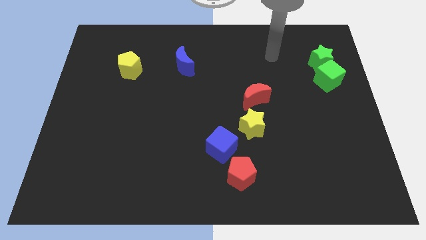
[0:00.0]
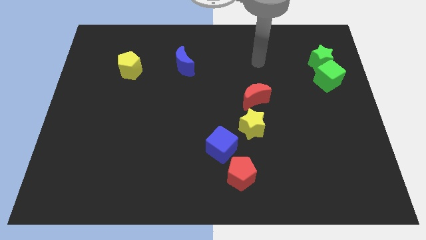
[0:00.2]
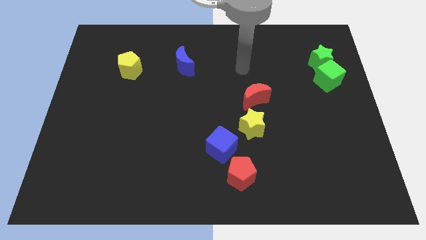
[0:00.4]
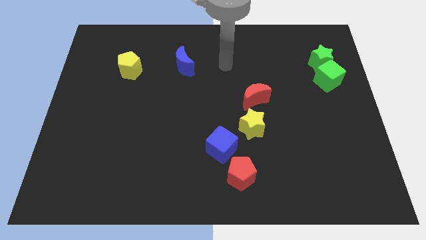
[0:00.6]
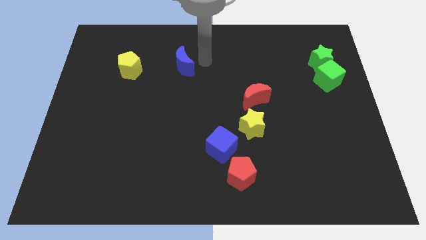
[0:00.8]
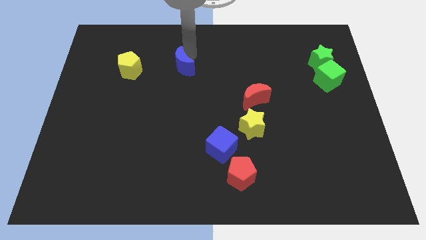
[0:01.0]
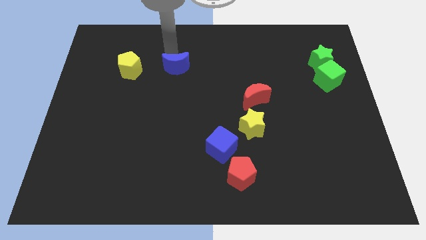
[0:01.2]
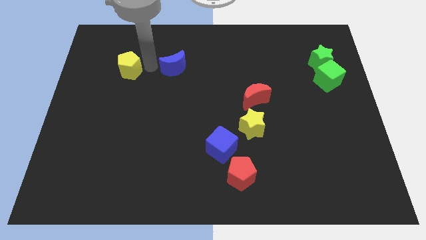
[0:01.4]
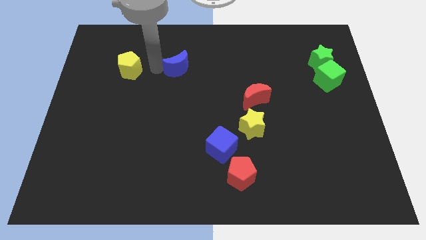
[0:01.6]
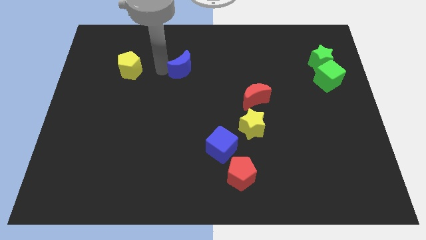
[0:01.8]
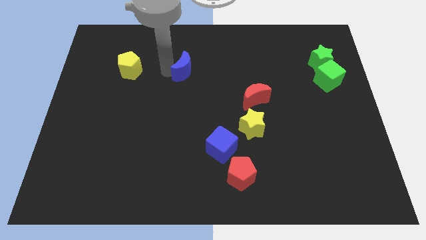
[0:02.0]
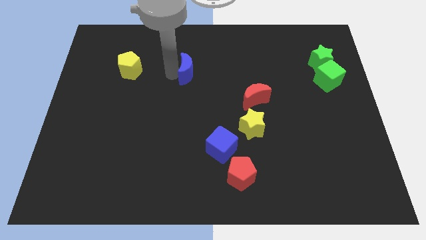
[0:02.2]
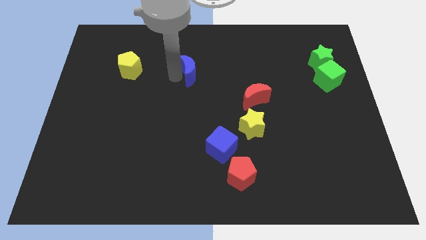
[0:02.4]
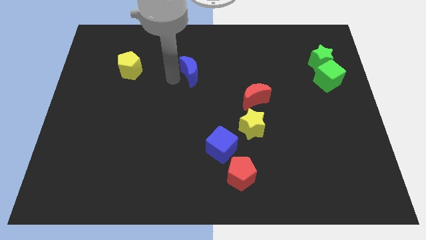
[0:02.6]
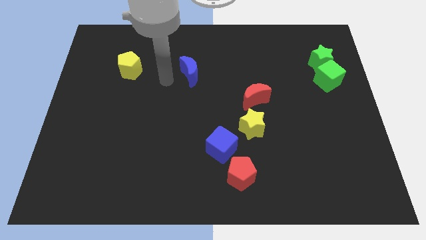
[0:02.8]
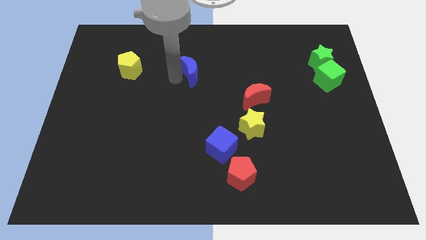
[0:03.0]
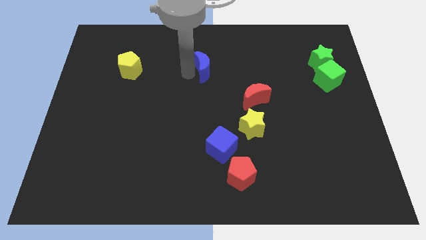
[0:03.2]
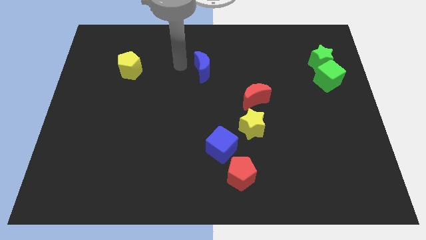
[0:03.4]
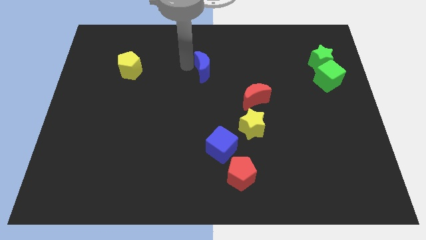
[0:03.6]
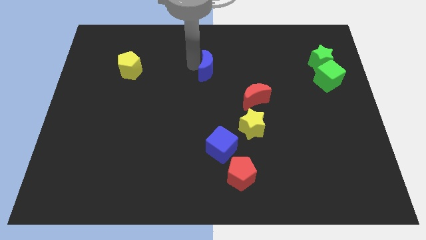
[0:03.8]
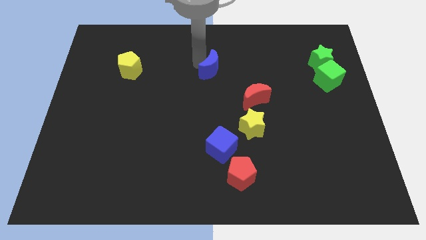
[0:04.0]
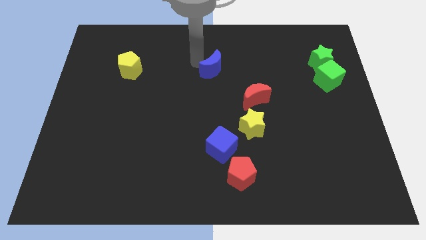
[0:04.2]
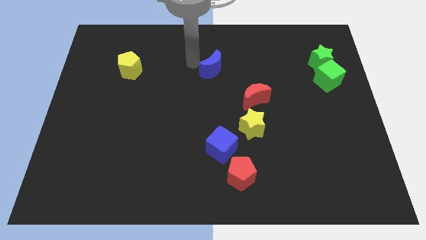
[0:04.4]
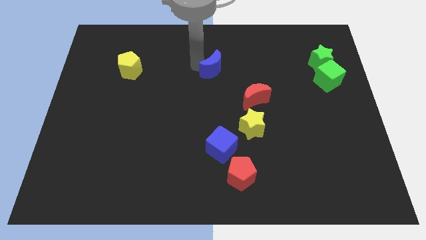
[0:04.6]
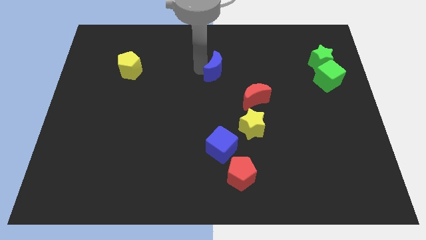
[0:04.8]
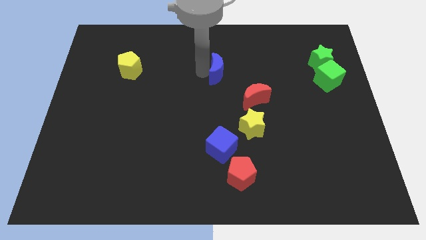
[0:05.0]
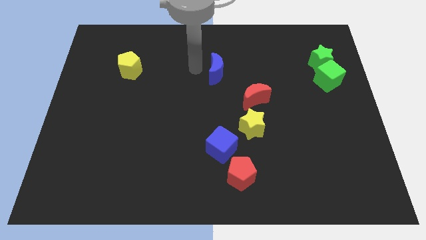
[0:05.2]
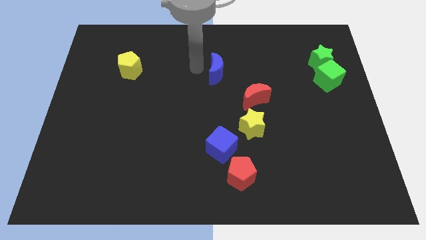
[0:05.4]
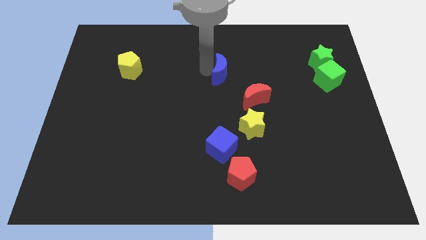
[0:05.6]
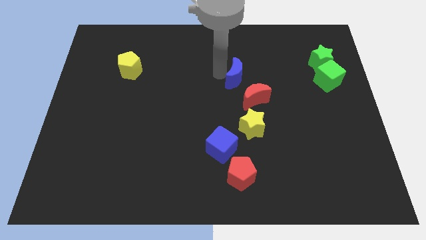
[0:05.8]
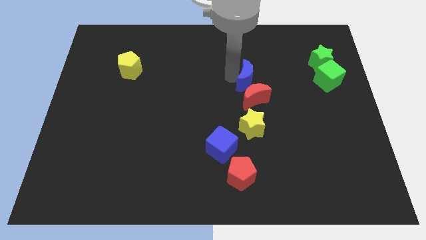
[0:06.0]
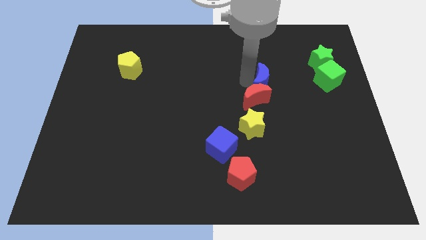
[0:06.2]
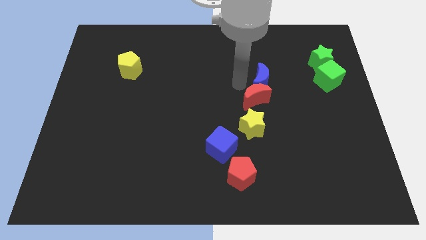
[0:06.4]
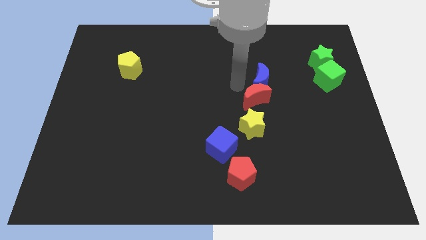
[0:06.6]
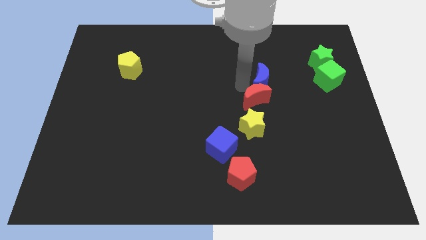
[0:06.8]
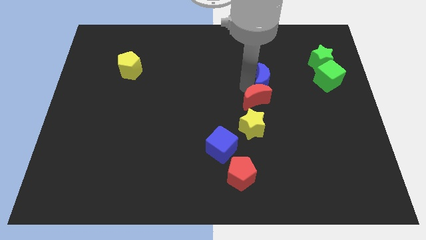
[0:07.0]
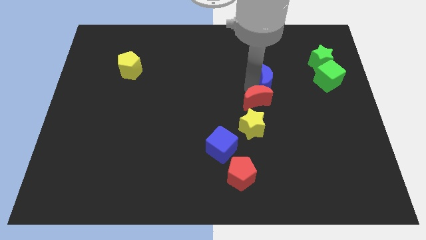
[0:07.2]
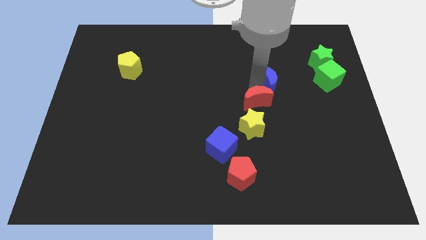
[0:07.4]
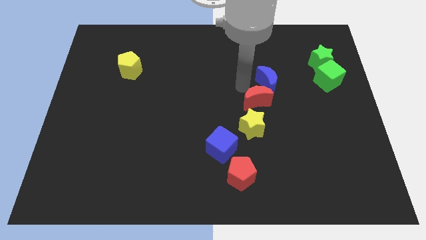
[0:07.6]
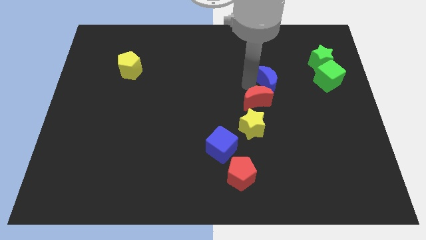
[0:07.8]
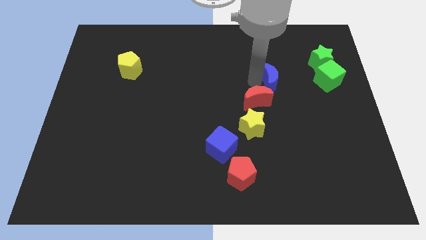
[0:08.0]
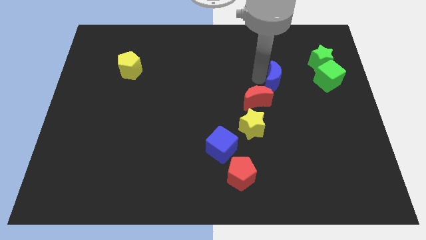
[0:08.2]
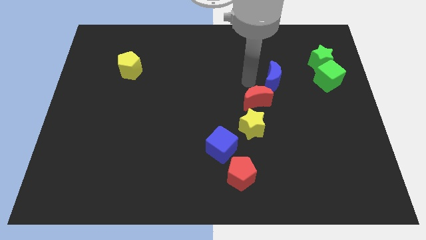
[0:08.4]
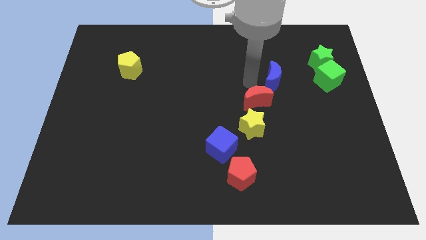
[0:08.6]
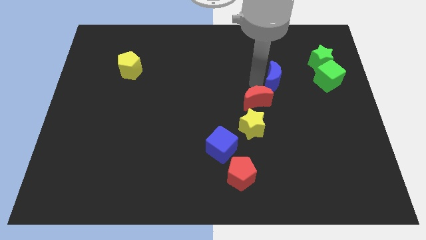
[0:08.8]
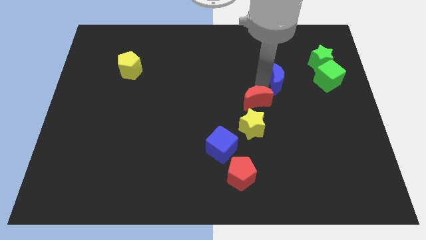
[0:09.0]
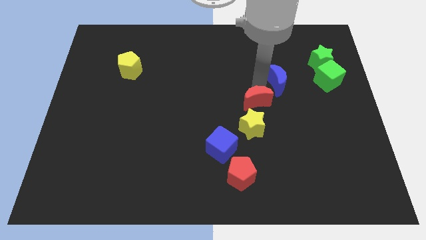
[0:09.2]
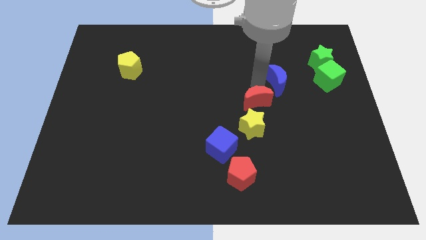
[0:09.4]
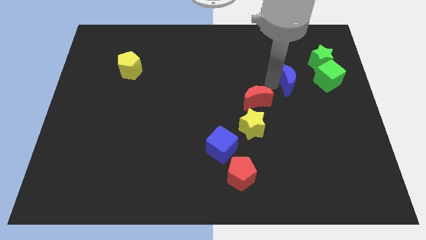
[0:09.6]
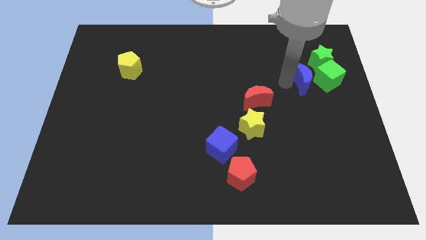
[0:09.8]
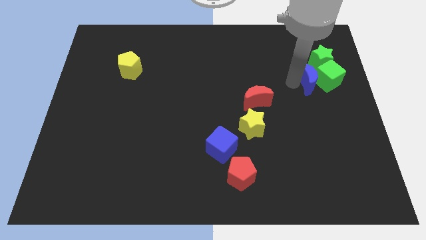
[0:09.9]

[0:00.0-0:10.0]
move the blue moon to the green cube

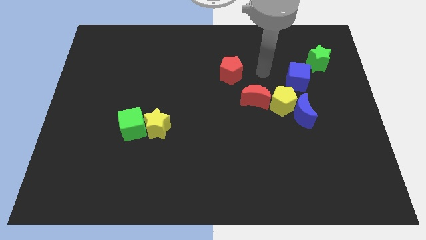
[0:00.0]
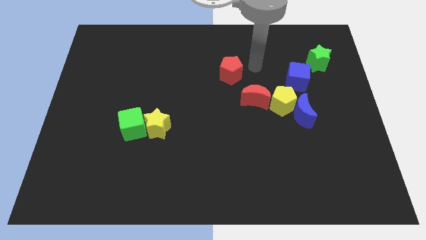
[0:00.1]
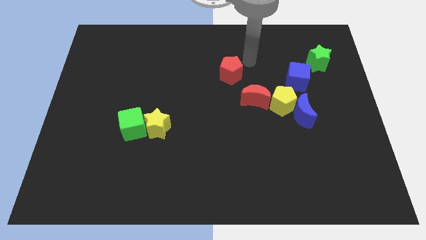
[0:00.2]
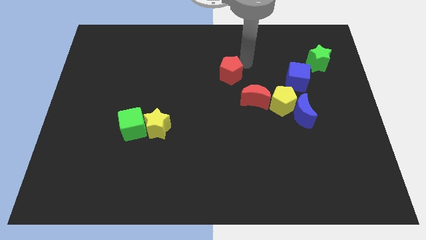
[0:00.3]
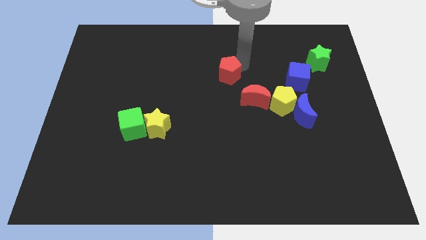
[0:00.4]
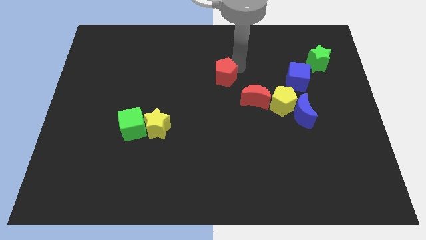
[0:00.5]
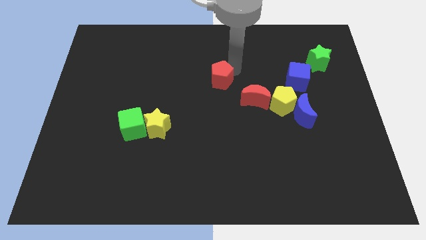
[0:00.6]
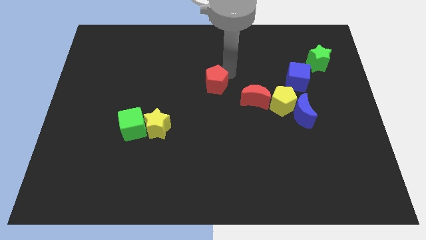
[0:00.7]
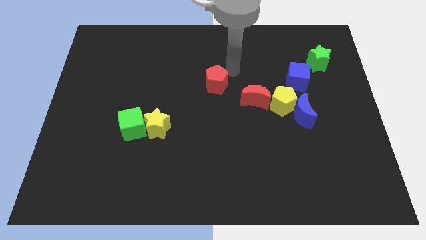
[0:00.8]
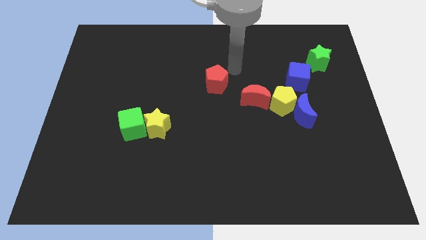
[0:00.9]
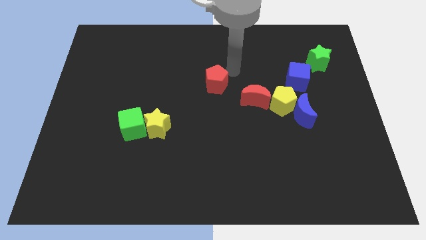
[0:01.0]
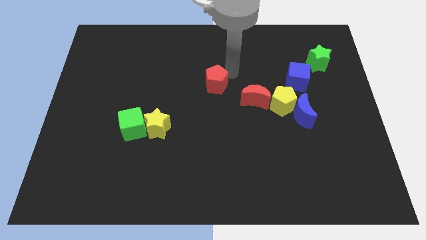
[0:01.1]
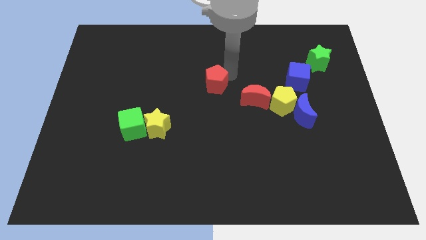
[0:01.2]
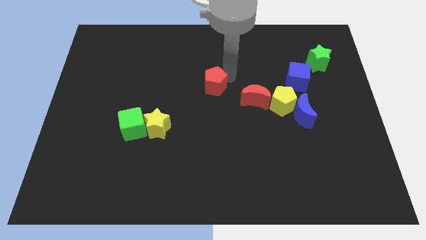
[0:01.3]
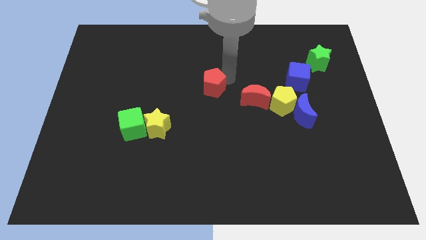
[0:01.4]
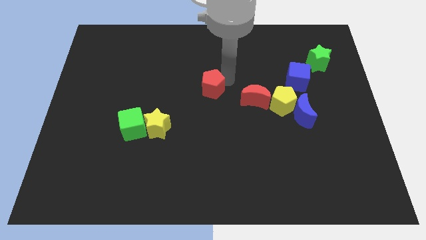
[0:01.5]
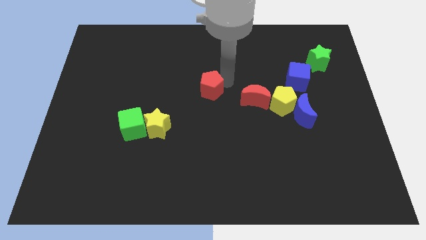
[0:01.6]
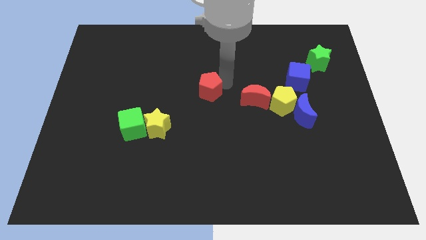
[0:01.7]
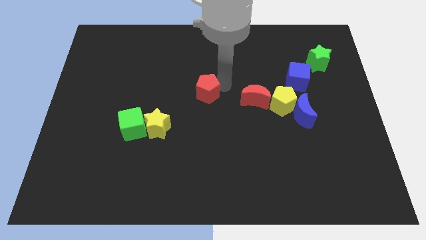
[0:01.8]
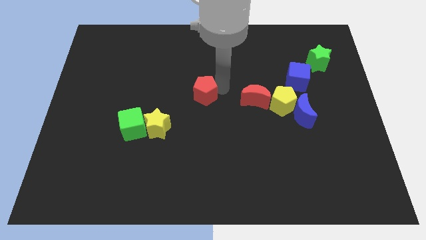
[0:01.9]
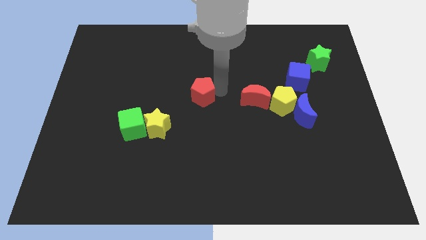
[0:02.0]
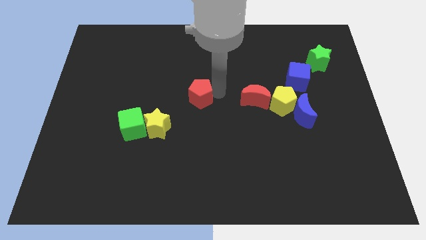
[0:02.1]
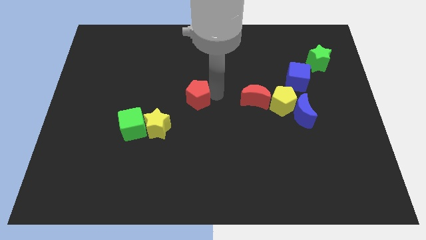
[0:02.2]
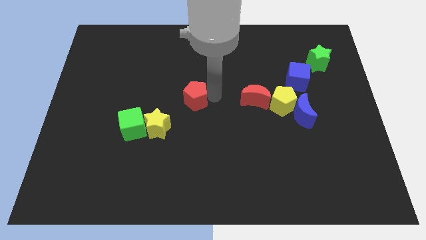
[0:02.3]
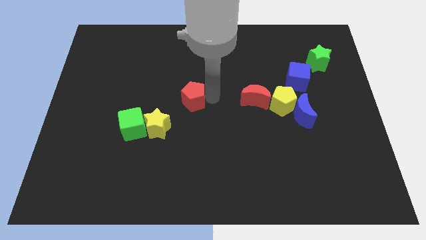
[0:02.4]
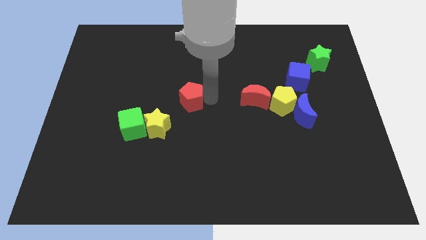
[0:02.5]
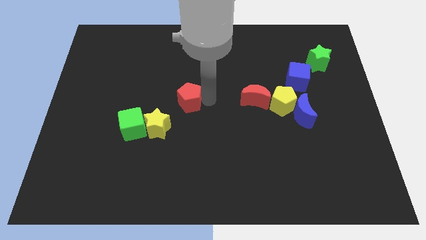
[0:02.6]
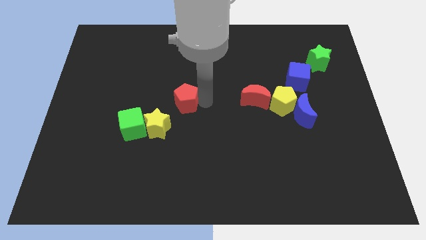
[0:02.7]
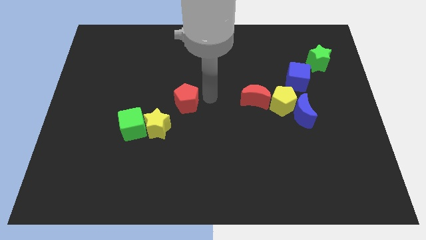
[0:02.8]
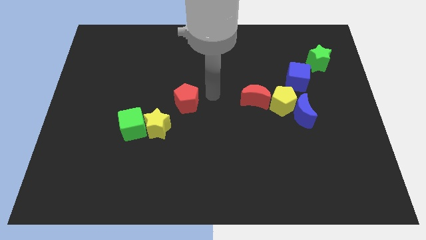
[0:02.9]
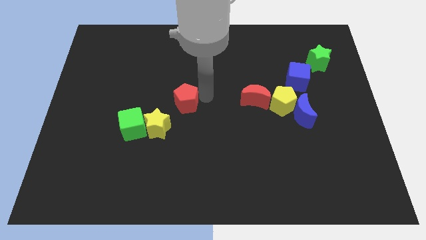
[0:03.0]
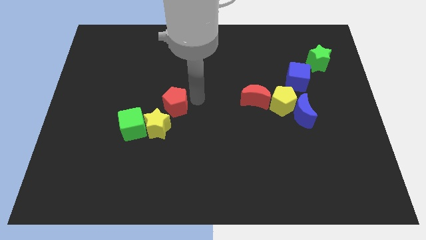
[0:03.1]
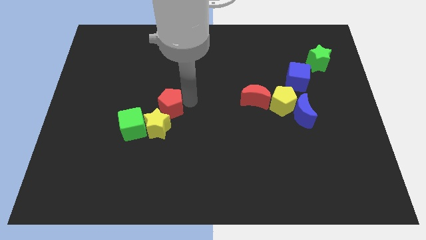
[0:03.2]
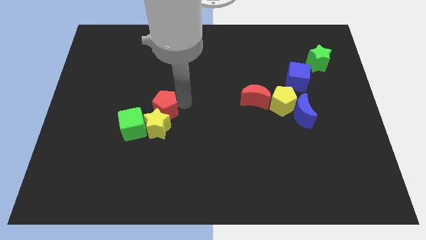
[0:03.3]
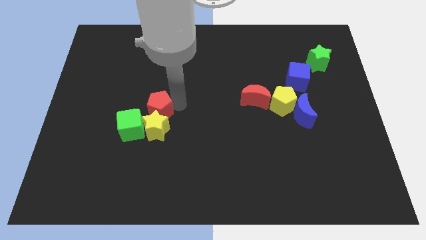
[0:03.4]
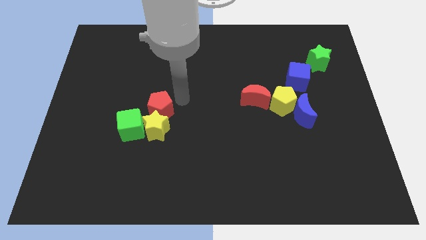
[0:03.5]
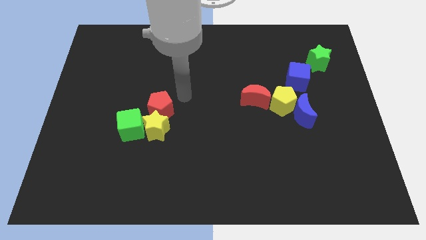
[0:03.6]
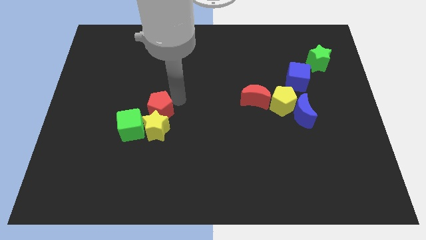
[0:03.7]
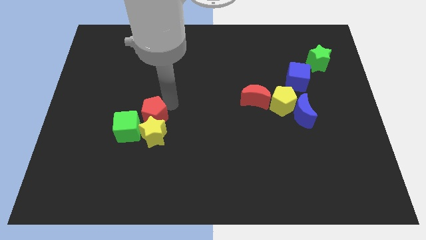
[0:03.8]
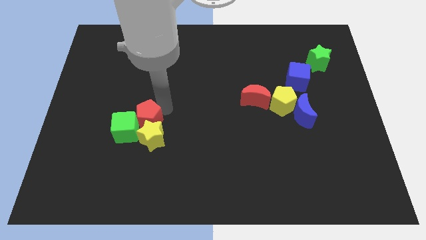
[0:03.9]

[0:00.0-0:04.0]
move the red pentagon close to the green cube
